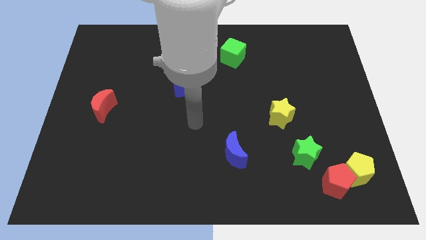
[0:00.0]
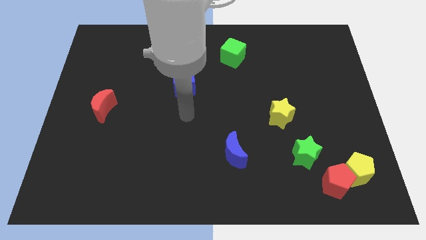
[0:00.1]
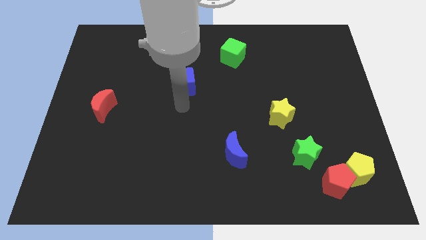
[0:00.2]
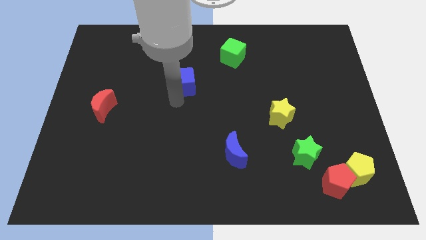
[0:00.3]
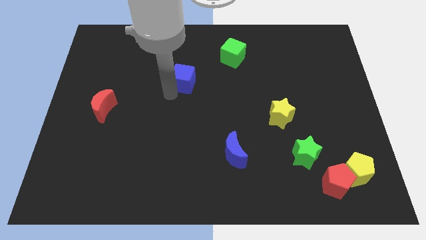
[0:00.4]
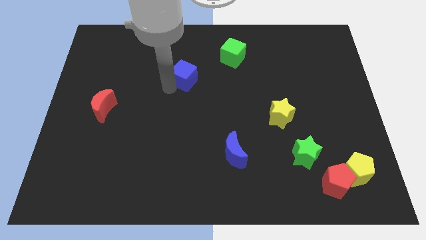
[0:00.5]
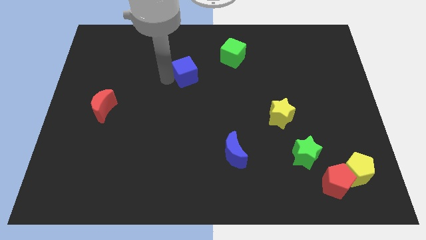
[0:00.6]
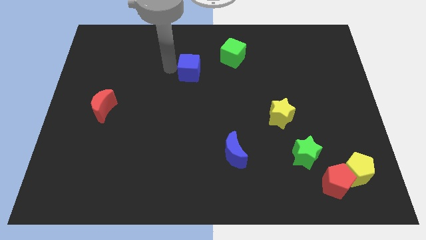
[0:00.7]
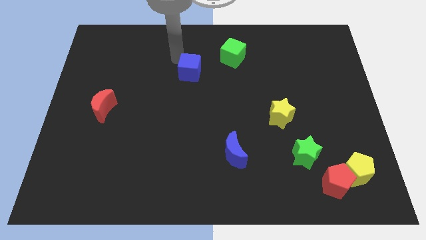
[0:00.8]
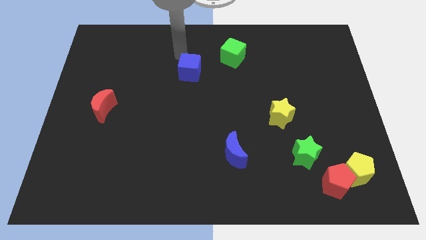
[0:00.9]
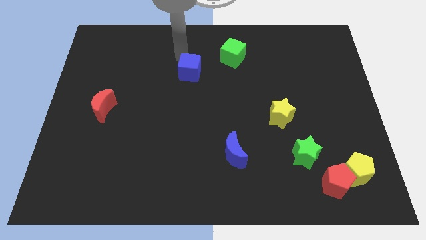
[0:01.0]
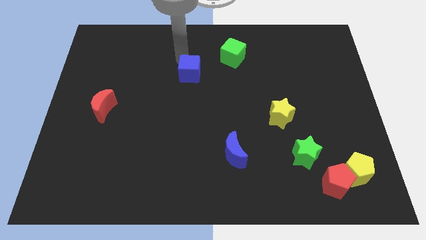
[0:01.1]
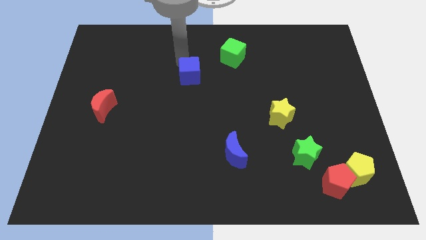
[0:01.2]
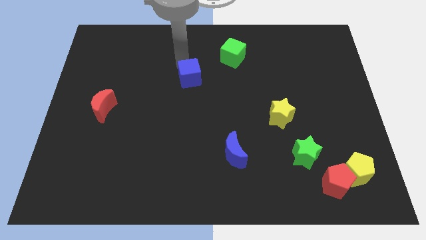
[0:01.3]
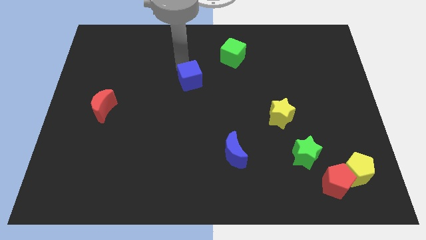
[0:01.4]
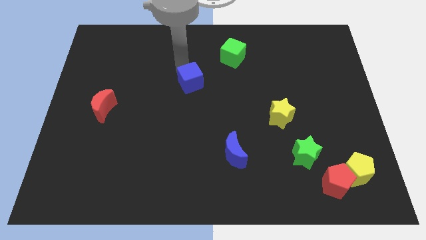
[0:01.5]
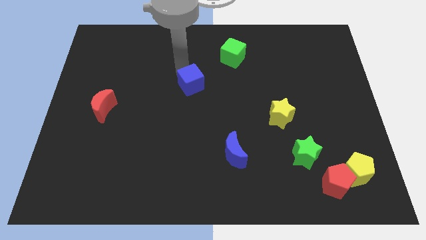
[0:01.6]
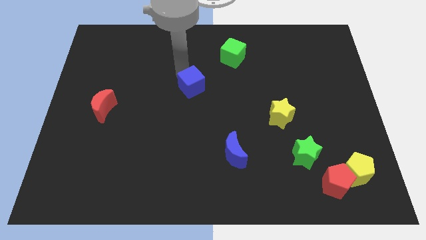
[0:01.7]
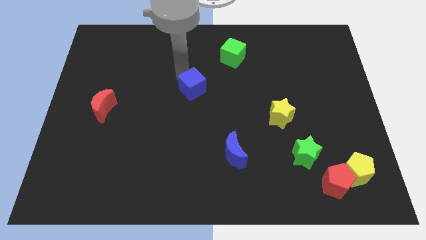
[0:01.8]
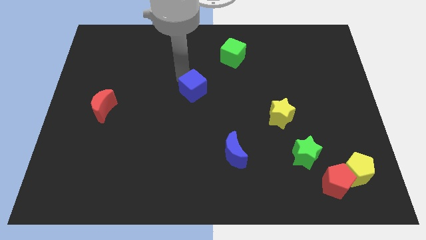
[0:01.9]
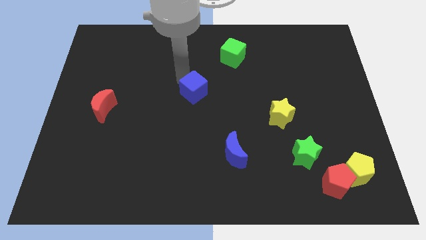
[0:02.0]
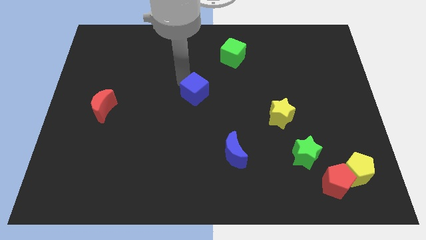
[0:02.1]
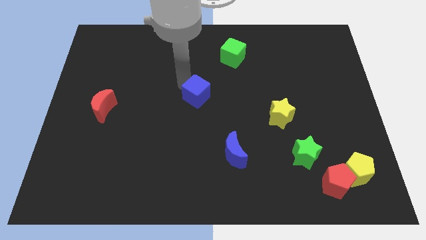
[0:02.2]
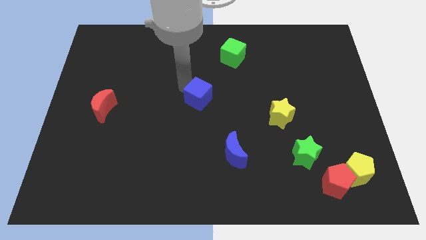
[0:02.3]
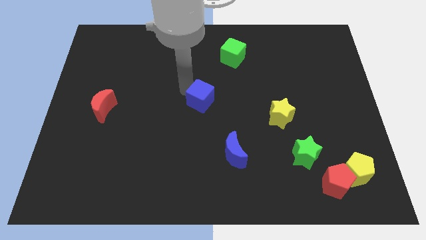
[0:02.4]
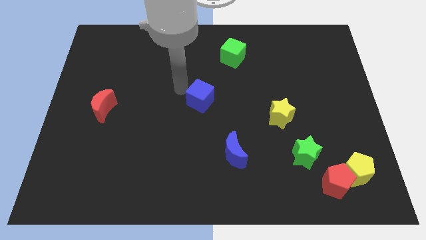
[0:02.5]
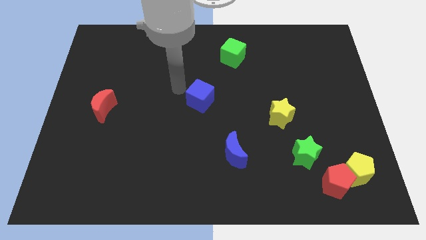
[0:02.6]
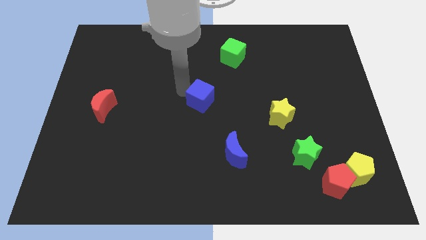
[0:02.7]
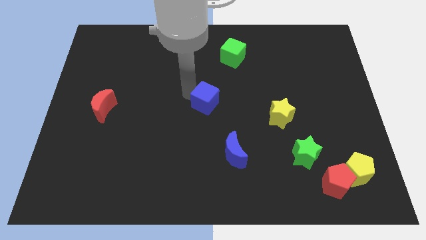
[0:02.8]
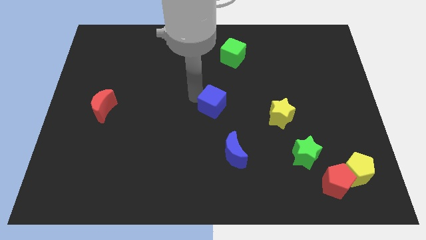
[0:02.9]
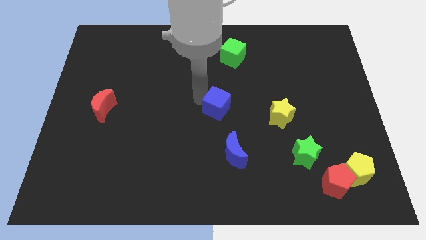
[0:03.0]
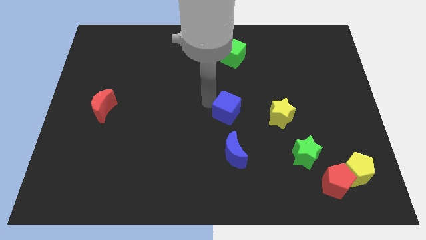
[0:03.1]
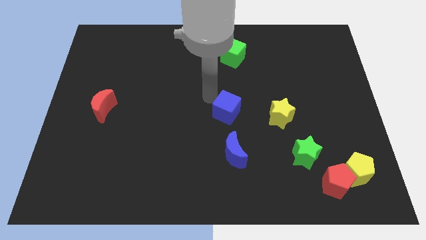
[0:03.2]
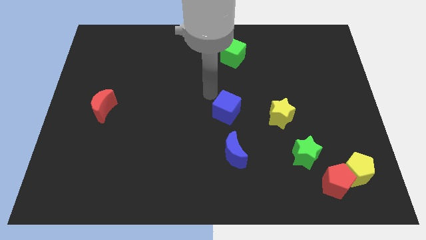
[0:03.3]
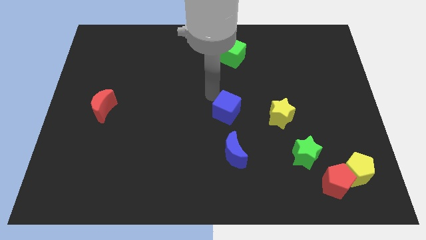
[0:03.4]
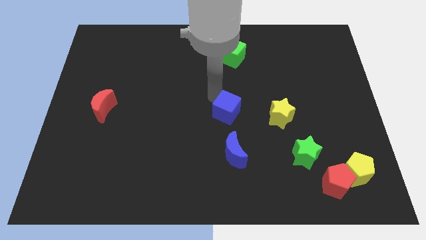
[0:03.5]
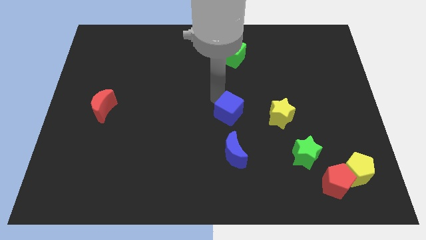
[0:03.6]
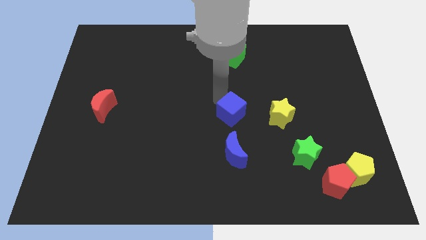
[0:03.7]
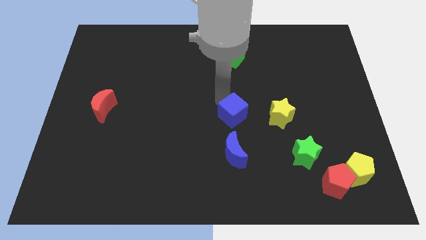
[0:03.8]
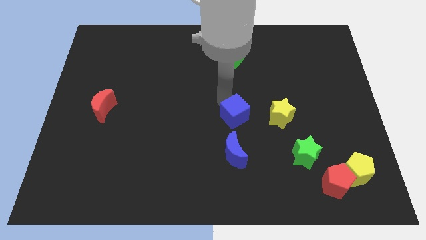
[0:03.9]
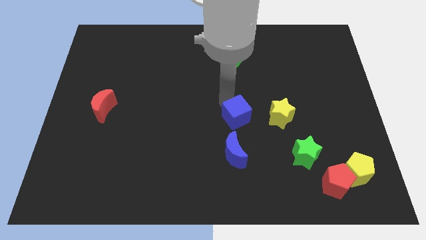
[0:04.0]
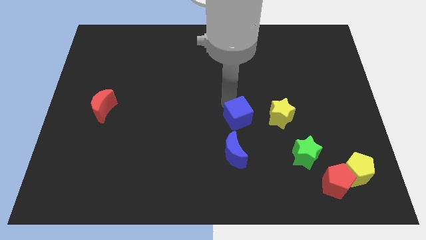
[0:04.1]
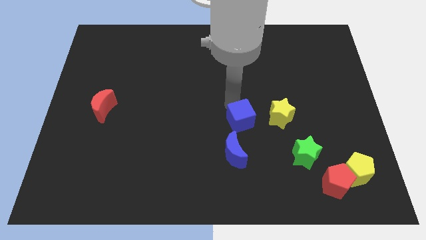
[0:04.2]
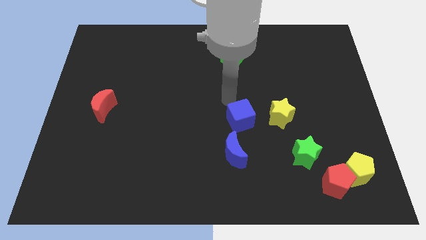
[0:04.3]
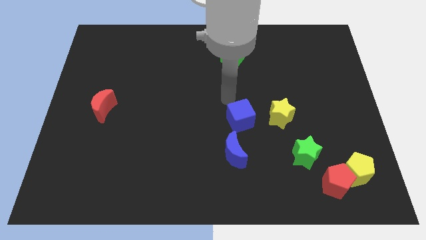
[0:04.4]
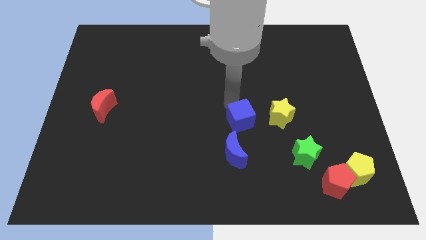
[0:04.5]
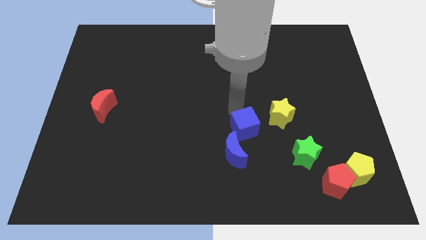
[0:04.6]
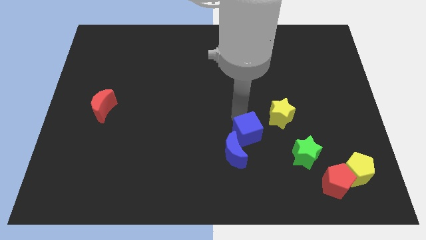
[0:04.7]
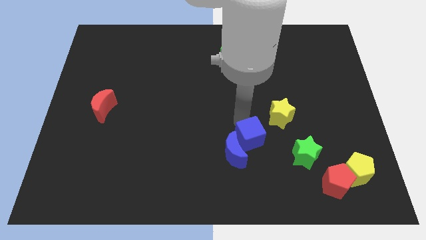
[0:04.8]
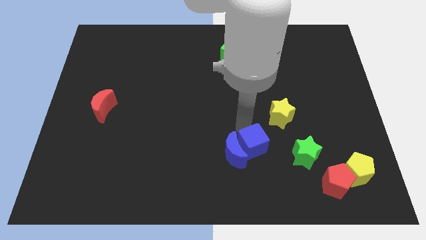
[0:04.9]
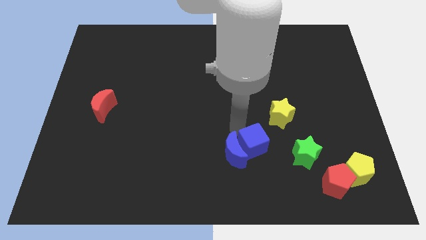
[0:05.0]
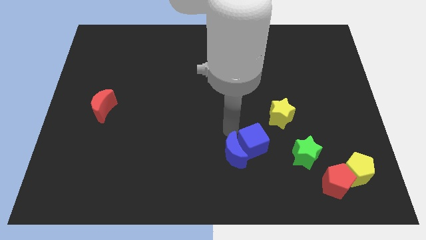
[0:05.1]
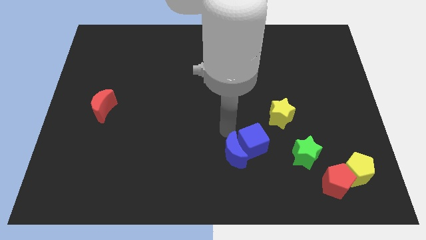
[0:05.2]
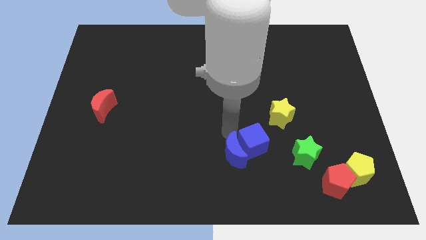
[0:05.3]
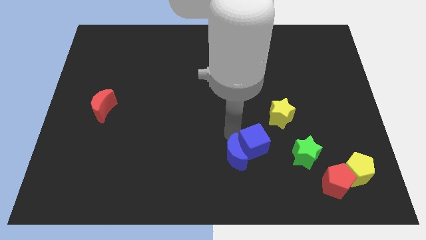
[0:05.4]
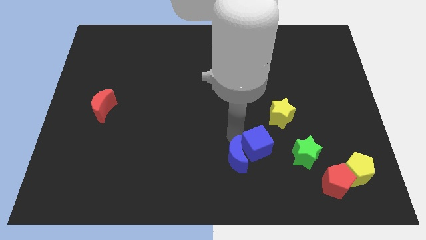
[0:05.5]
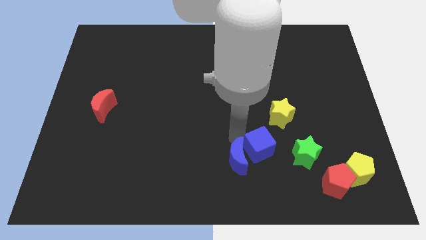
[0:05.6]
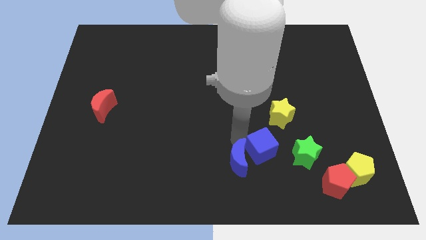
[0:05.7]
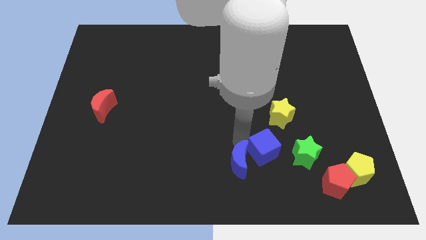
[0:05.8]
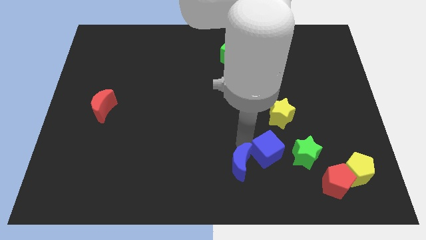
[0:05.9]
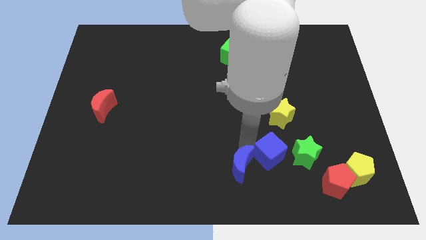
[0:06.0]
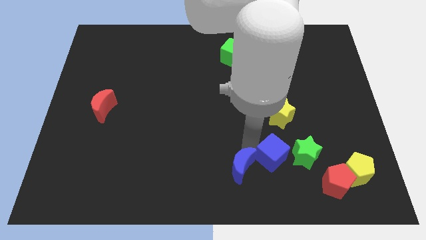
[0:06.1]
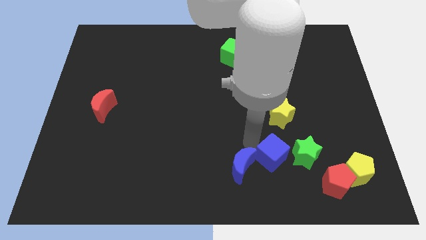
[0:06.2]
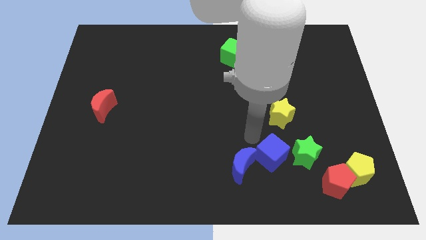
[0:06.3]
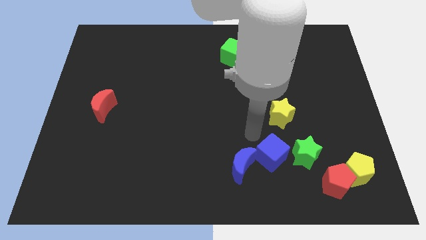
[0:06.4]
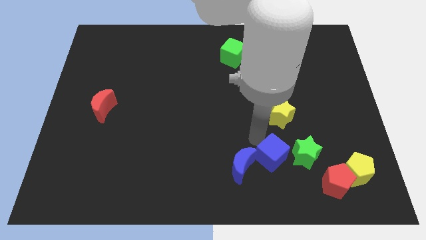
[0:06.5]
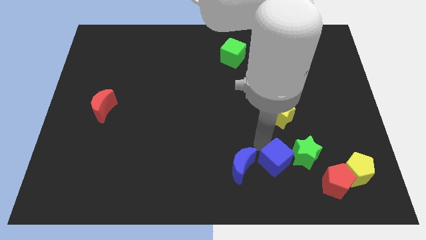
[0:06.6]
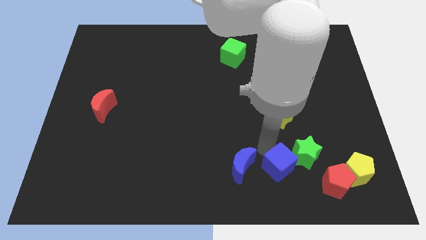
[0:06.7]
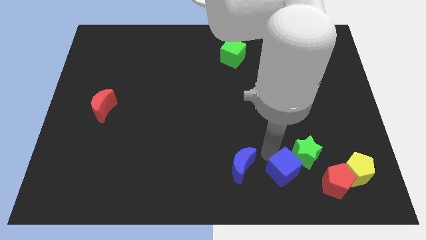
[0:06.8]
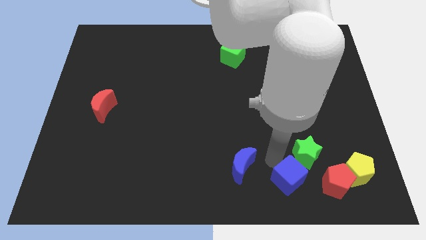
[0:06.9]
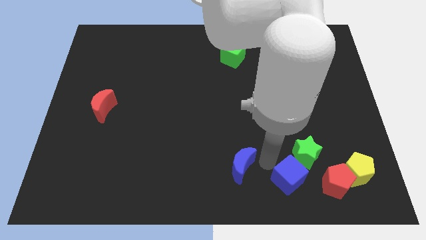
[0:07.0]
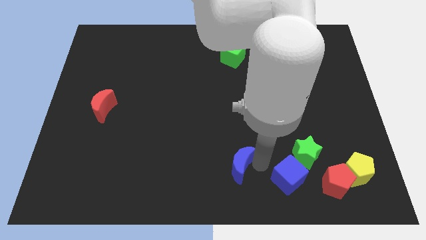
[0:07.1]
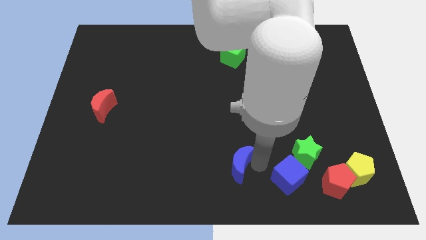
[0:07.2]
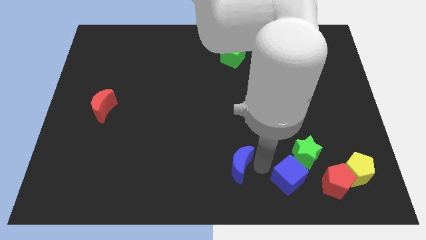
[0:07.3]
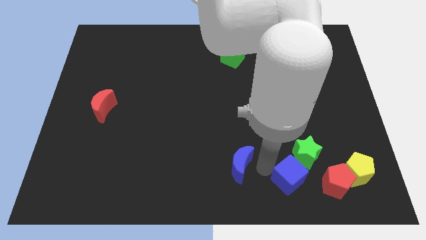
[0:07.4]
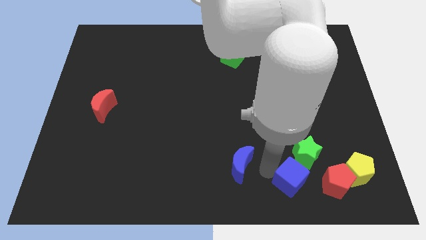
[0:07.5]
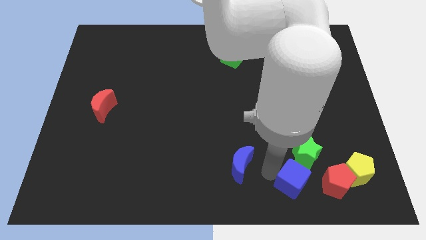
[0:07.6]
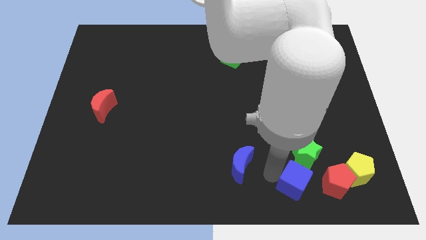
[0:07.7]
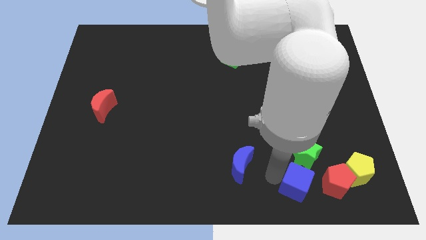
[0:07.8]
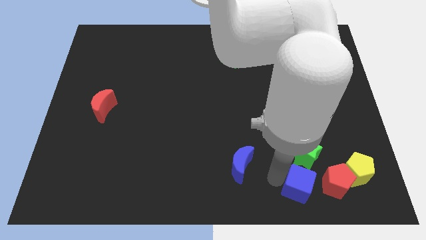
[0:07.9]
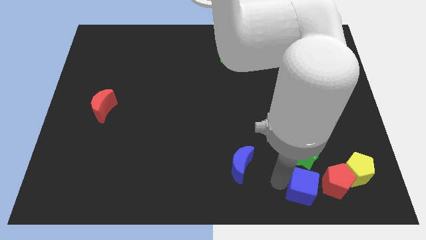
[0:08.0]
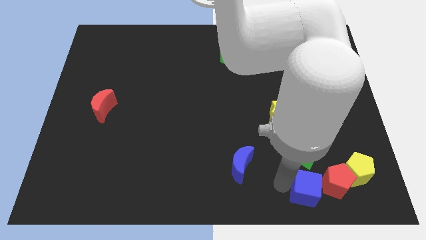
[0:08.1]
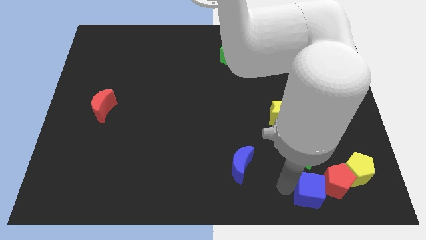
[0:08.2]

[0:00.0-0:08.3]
push the blue cube towards the red pentagon
